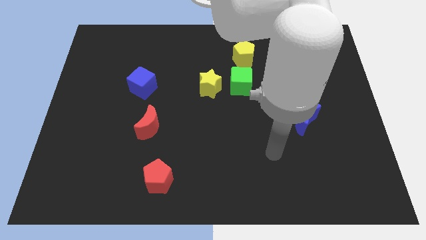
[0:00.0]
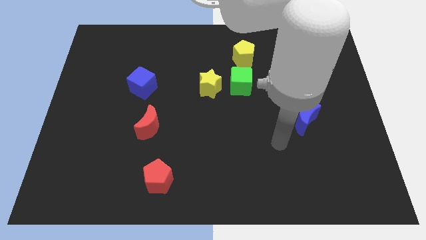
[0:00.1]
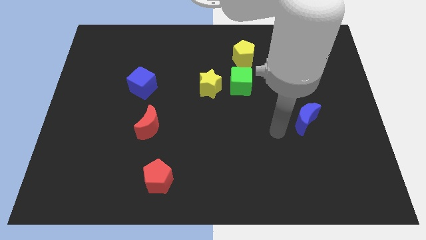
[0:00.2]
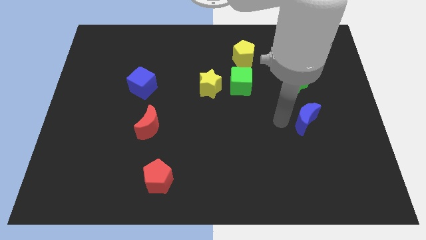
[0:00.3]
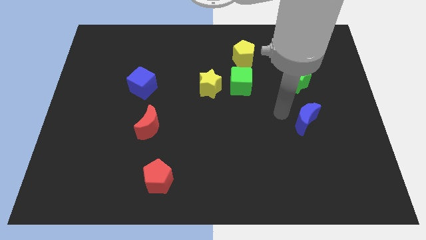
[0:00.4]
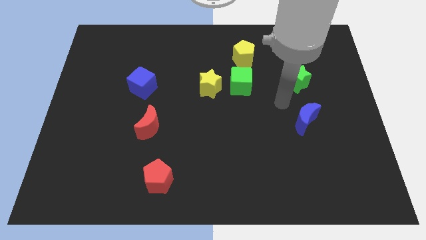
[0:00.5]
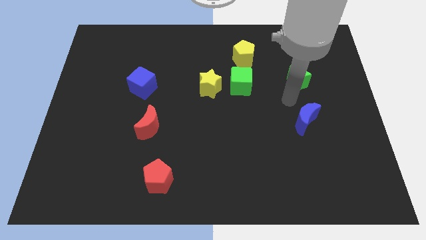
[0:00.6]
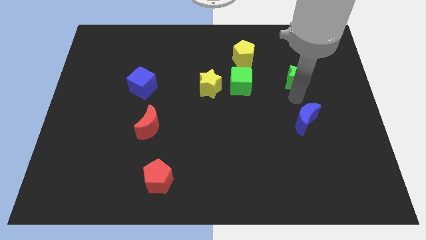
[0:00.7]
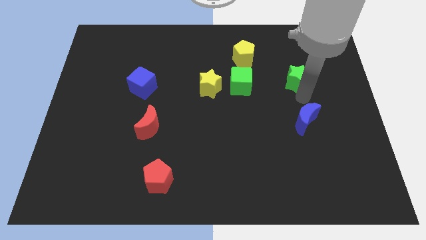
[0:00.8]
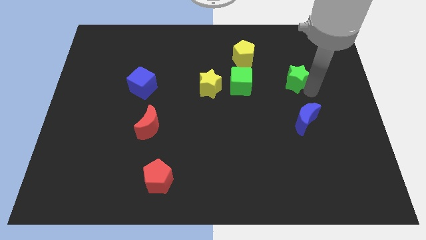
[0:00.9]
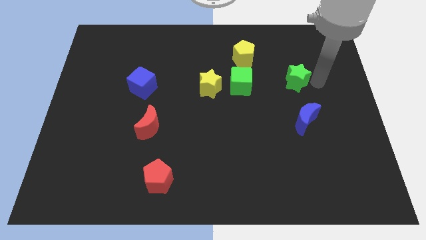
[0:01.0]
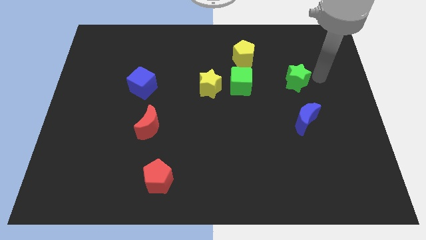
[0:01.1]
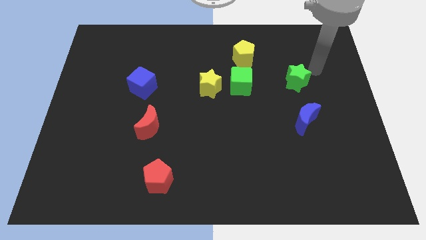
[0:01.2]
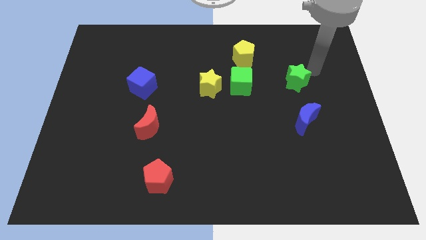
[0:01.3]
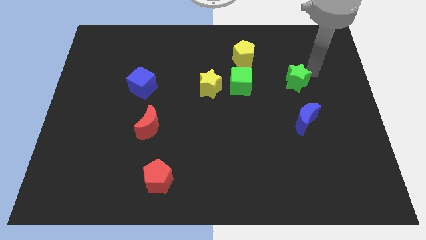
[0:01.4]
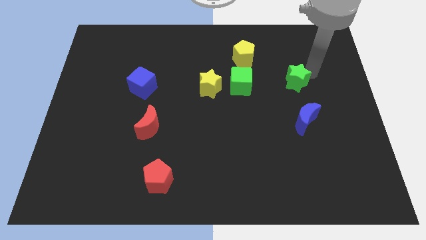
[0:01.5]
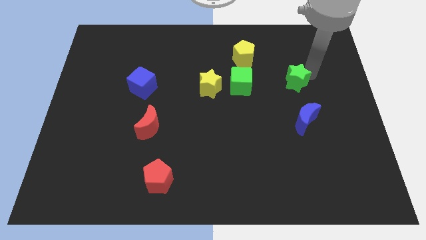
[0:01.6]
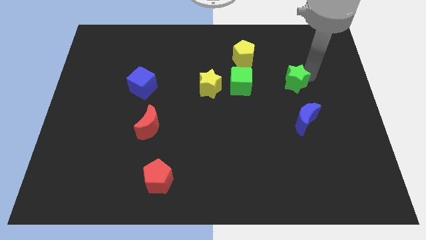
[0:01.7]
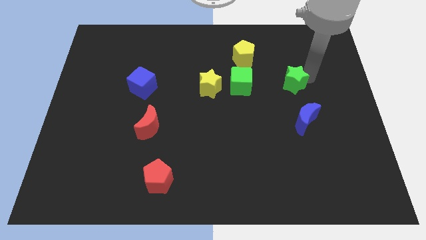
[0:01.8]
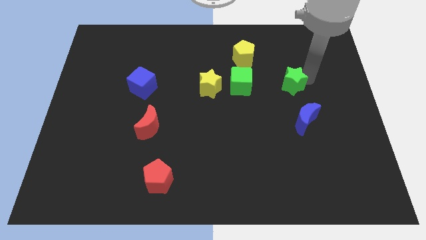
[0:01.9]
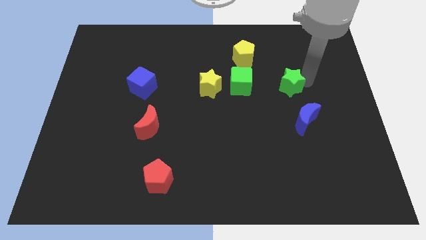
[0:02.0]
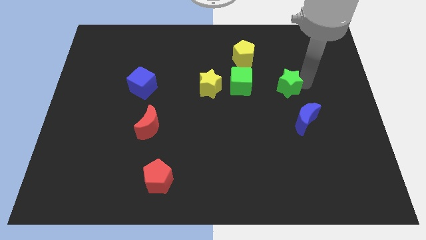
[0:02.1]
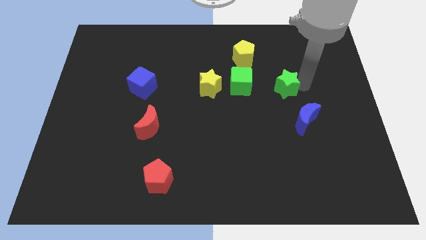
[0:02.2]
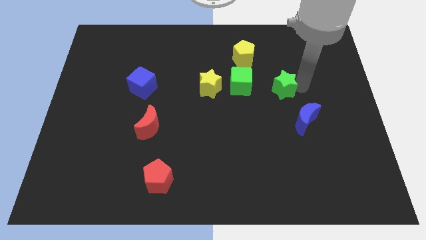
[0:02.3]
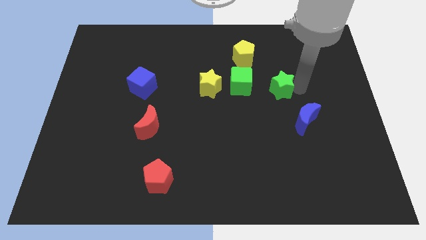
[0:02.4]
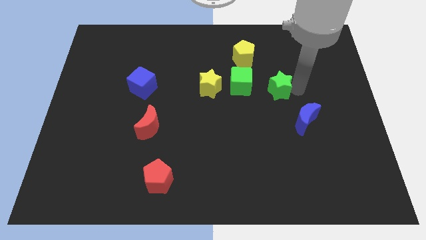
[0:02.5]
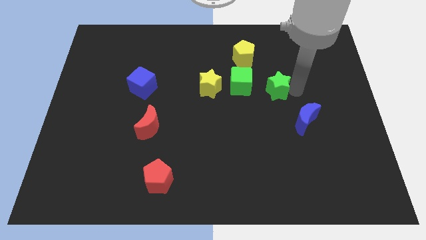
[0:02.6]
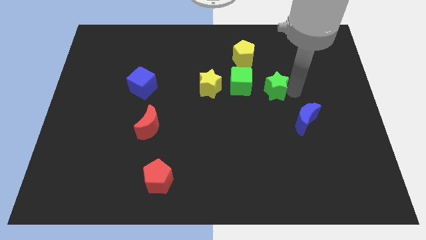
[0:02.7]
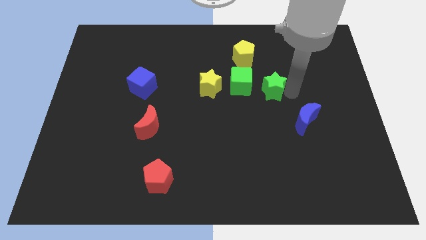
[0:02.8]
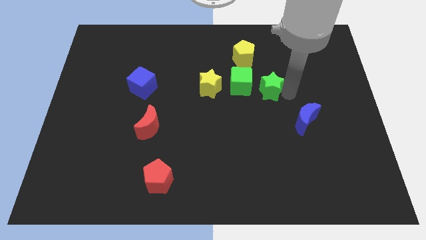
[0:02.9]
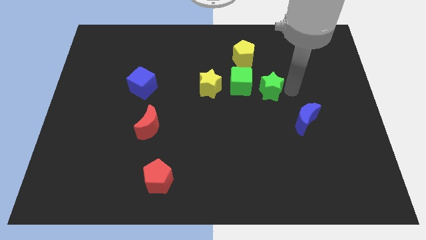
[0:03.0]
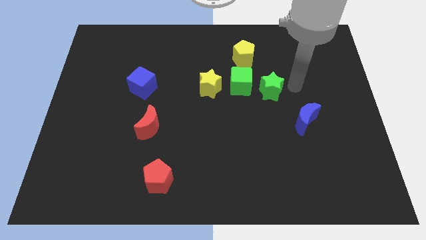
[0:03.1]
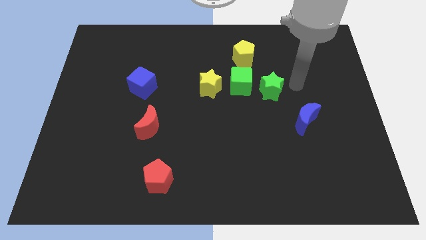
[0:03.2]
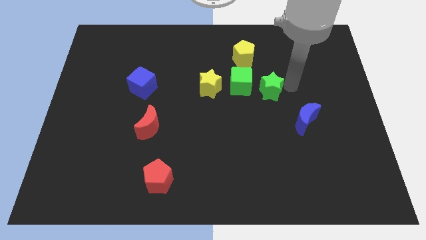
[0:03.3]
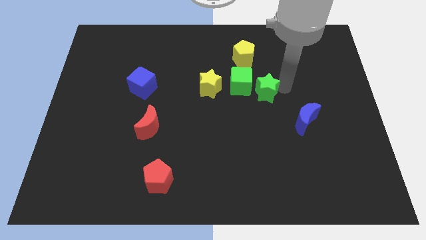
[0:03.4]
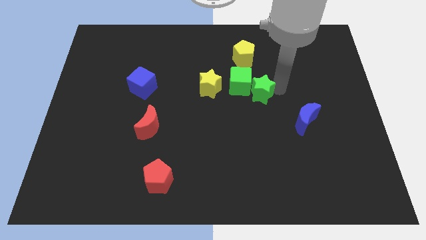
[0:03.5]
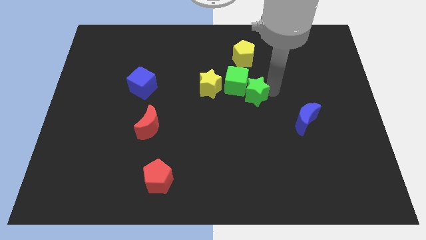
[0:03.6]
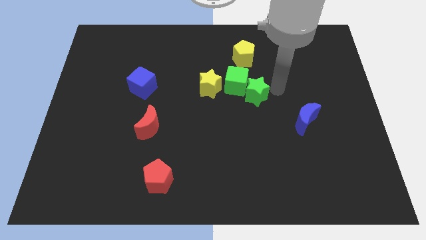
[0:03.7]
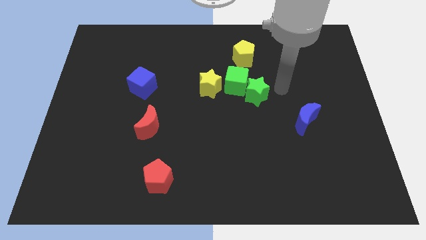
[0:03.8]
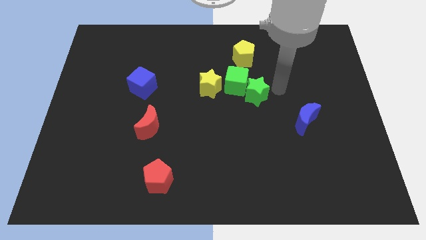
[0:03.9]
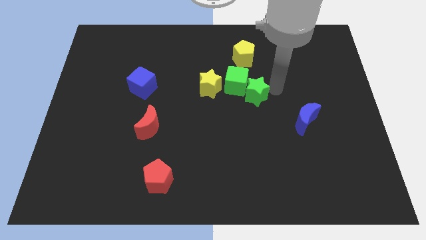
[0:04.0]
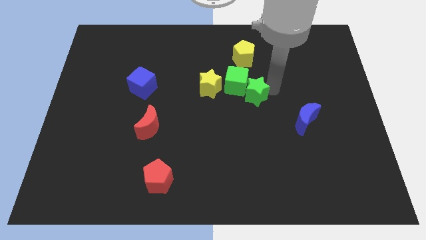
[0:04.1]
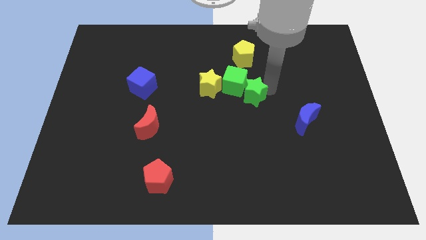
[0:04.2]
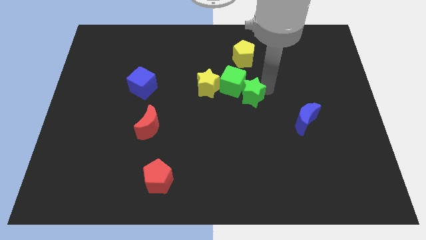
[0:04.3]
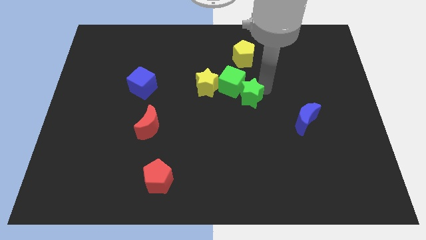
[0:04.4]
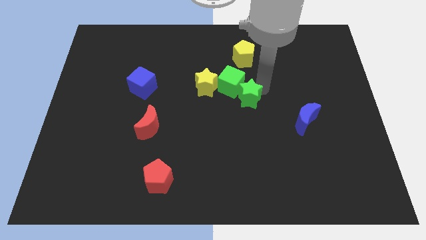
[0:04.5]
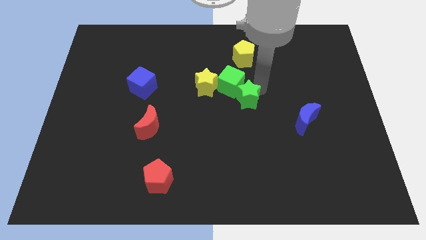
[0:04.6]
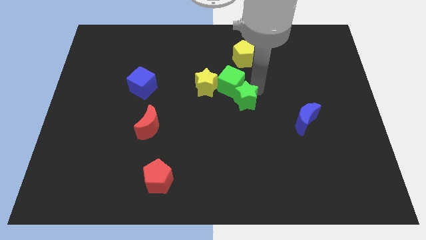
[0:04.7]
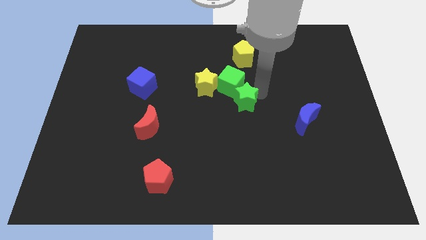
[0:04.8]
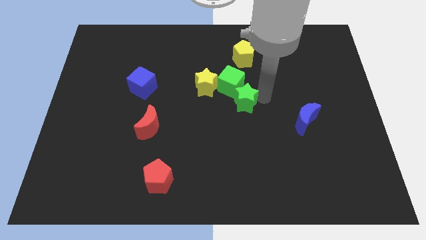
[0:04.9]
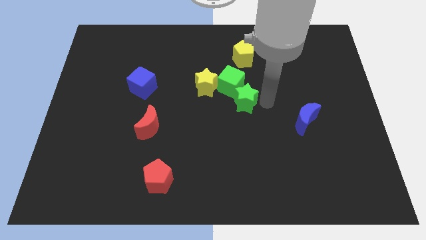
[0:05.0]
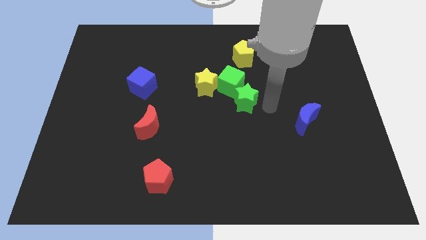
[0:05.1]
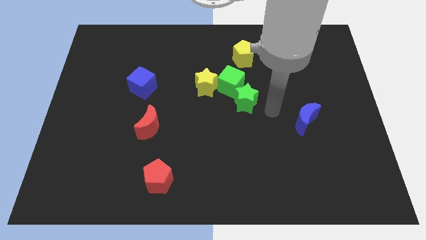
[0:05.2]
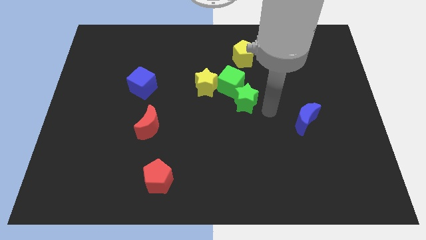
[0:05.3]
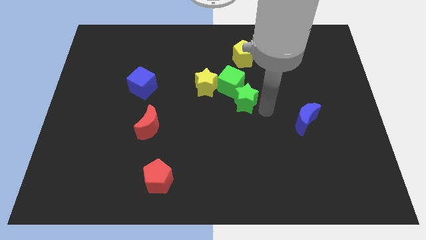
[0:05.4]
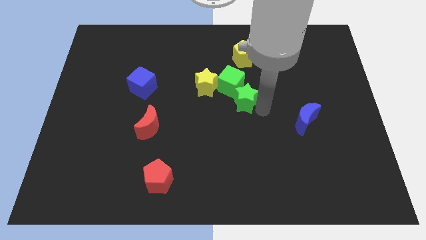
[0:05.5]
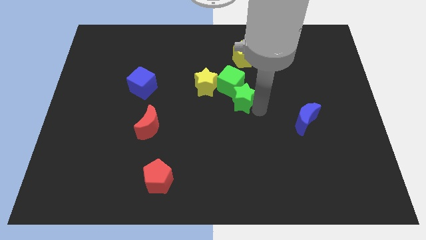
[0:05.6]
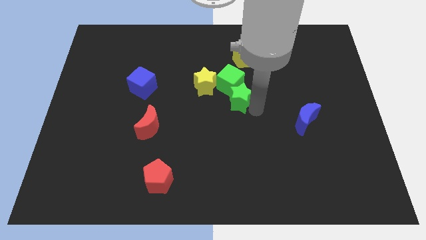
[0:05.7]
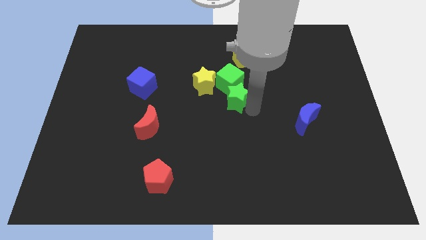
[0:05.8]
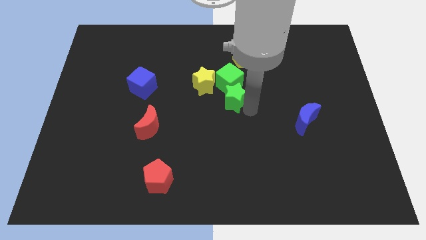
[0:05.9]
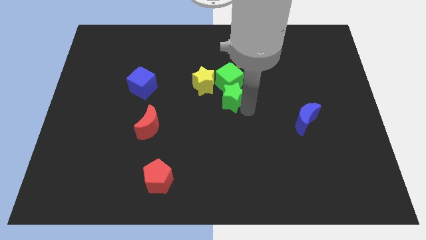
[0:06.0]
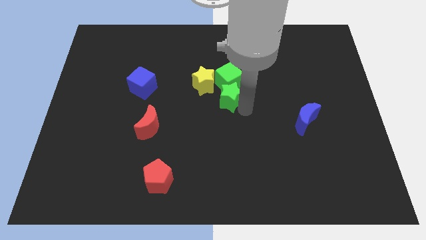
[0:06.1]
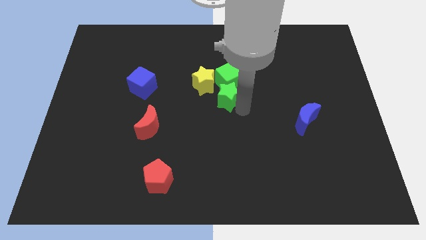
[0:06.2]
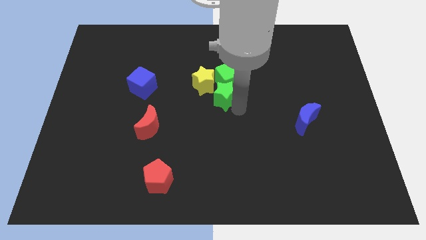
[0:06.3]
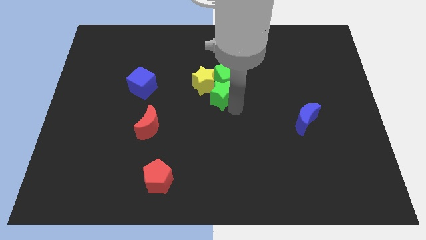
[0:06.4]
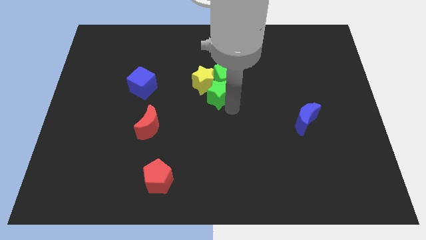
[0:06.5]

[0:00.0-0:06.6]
put the green star next to the yellow star
